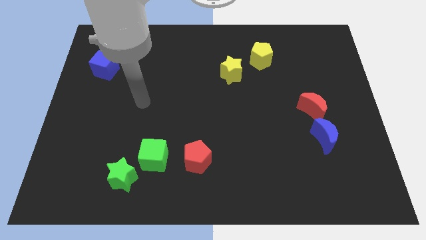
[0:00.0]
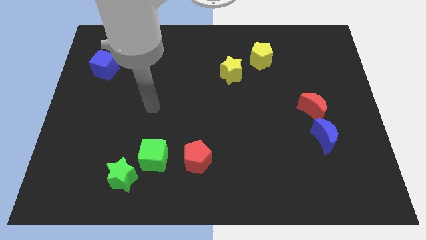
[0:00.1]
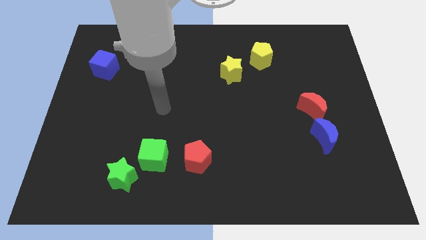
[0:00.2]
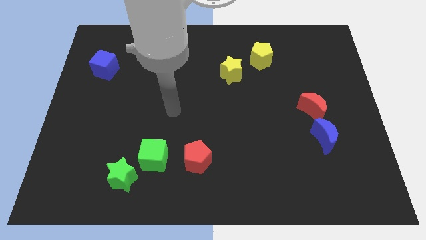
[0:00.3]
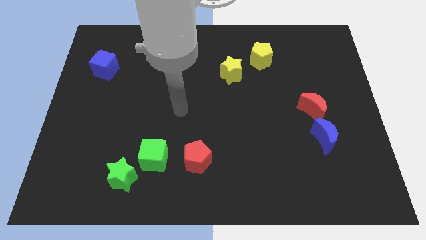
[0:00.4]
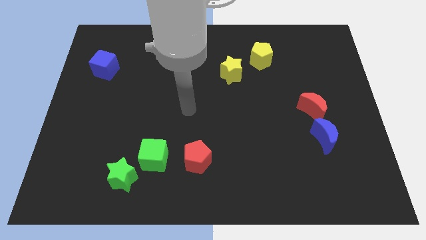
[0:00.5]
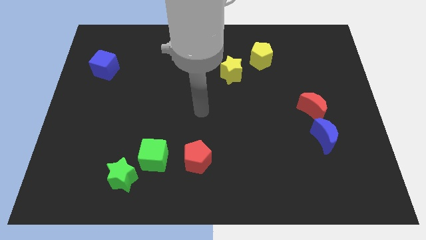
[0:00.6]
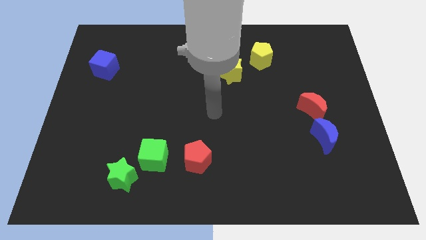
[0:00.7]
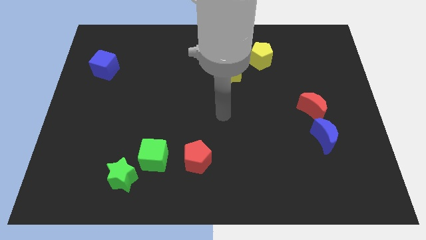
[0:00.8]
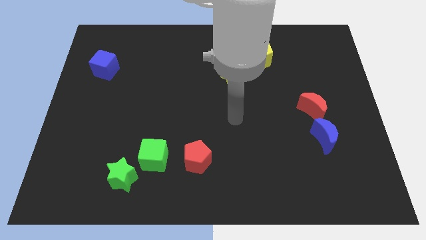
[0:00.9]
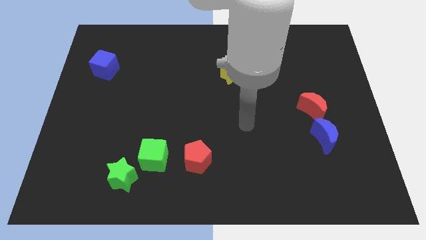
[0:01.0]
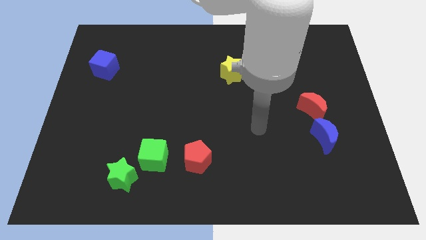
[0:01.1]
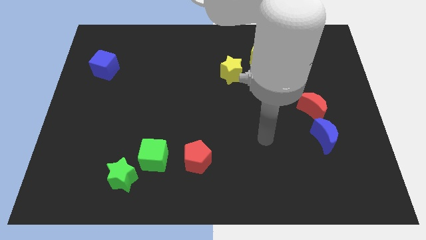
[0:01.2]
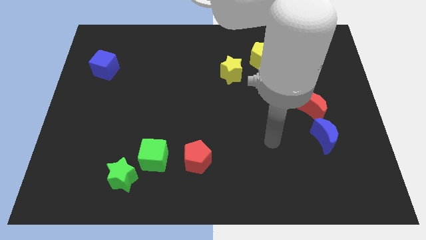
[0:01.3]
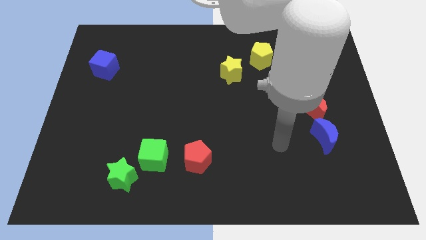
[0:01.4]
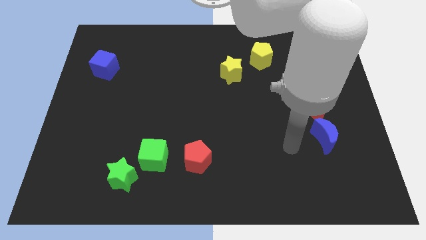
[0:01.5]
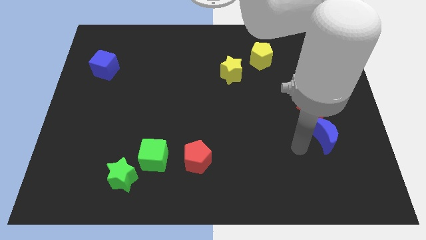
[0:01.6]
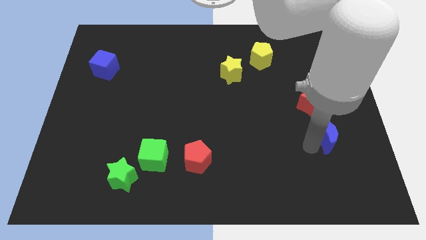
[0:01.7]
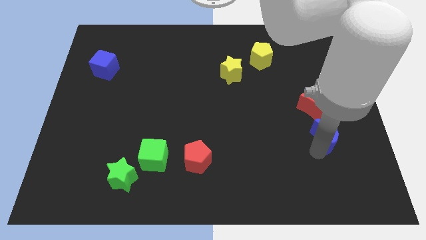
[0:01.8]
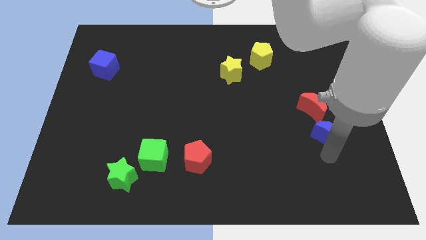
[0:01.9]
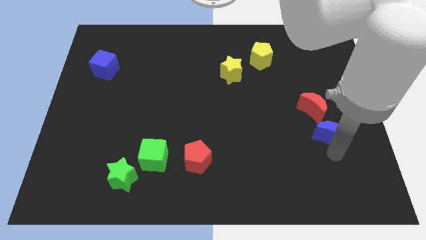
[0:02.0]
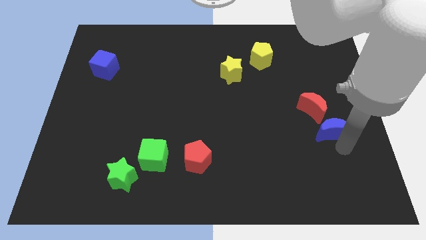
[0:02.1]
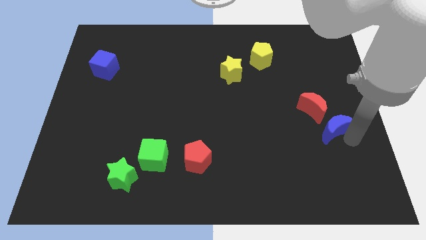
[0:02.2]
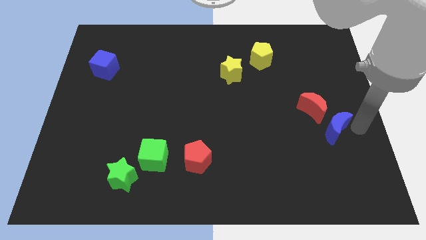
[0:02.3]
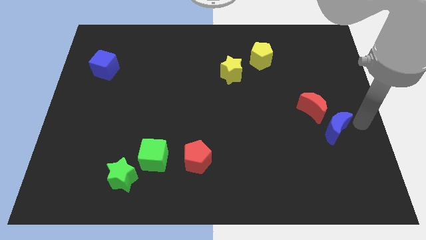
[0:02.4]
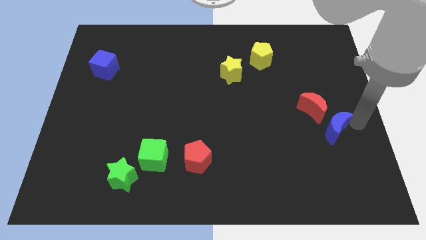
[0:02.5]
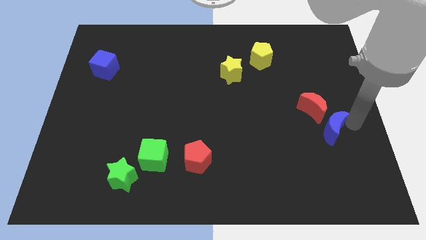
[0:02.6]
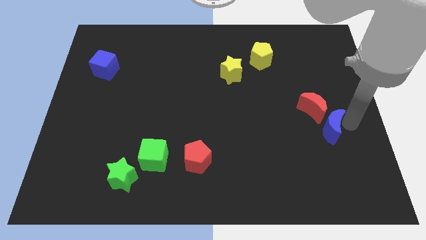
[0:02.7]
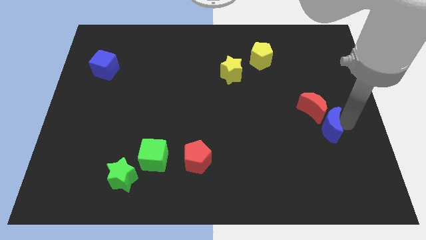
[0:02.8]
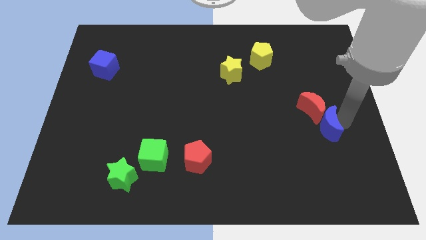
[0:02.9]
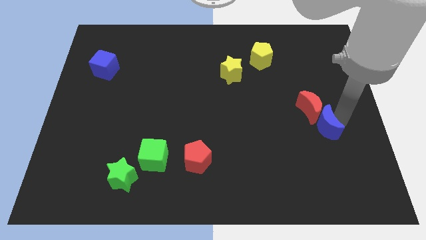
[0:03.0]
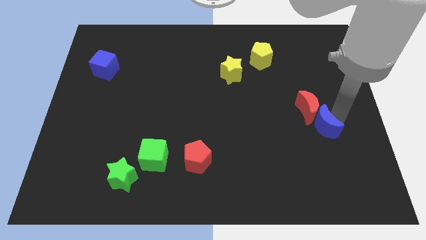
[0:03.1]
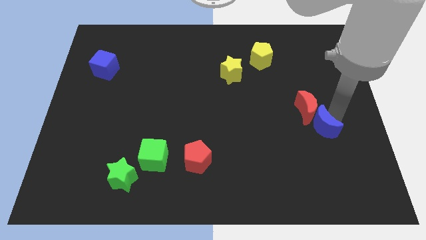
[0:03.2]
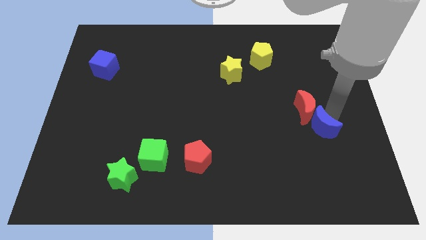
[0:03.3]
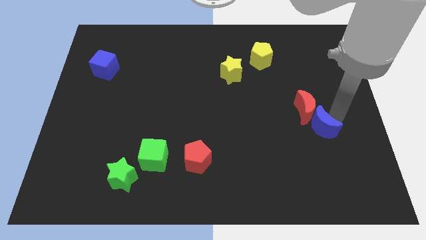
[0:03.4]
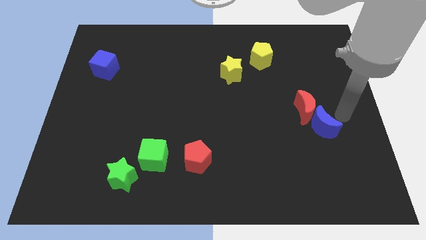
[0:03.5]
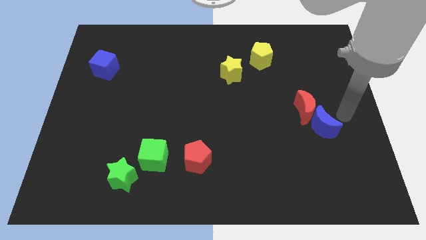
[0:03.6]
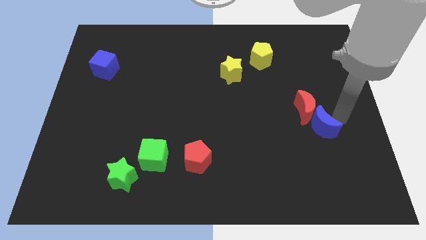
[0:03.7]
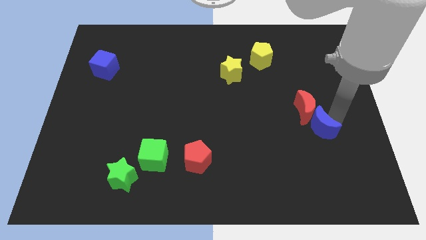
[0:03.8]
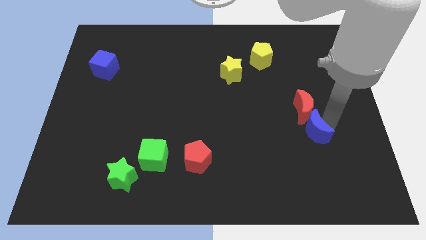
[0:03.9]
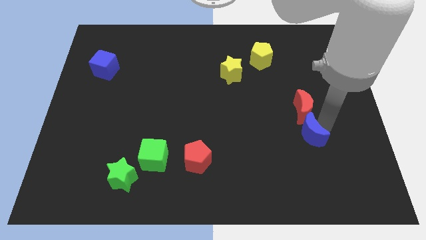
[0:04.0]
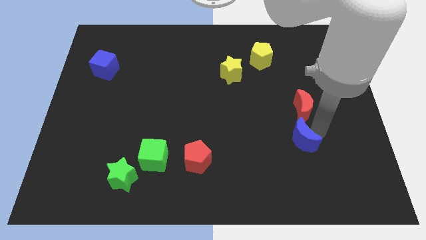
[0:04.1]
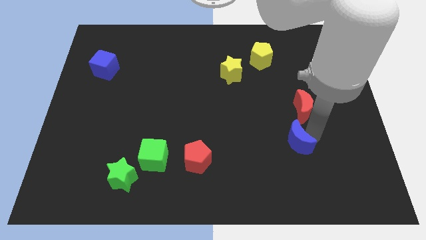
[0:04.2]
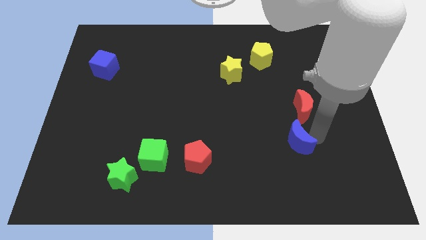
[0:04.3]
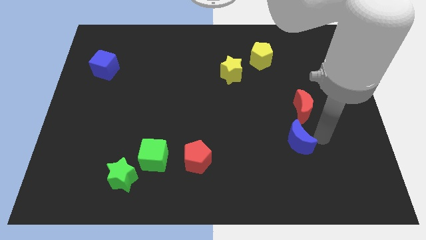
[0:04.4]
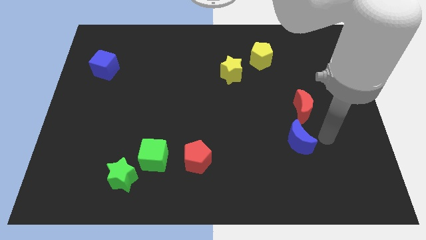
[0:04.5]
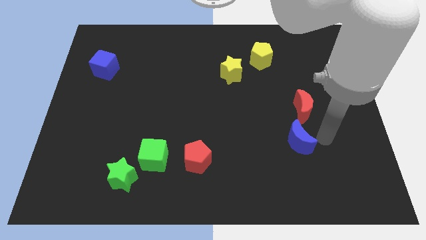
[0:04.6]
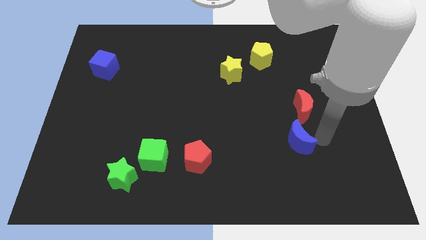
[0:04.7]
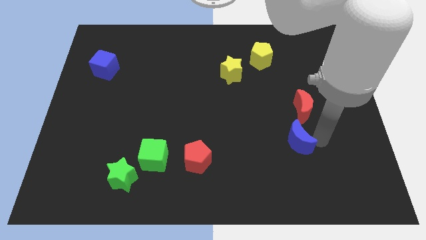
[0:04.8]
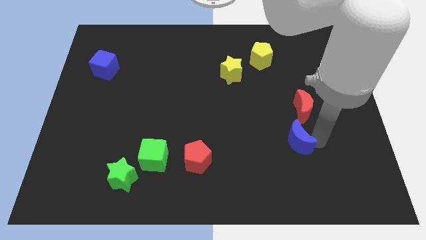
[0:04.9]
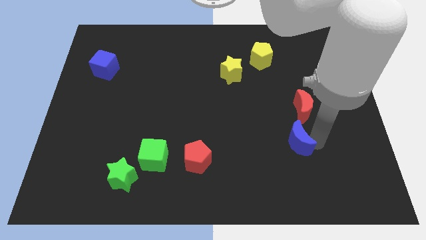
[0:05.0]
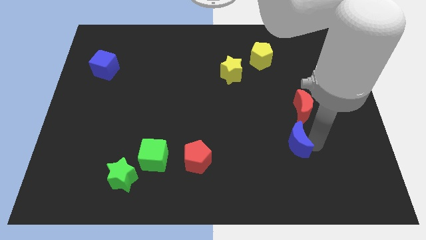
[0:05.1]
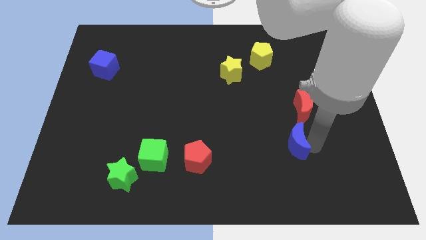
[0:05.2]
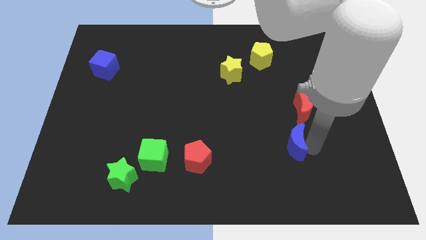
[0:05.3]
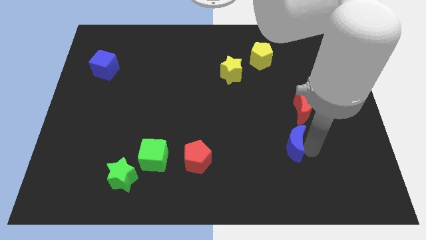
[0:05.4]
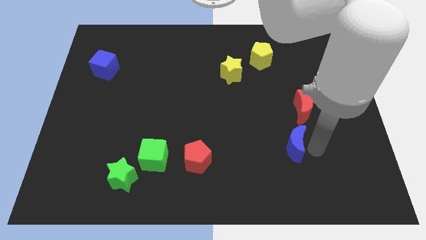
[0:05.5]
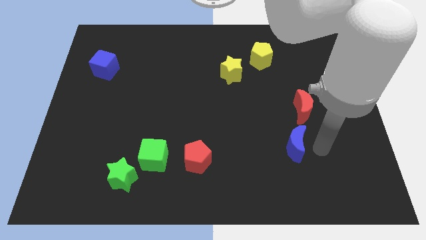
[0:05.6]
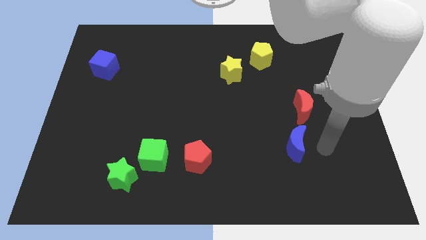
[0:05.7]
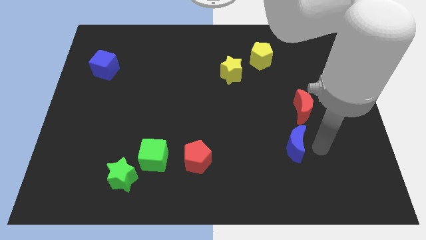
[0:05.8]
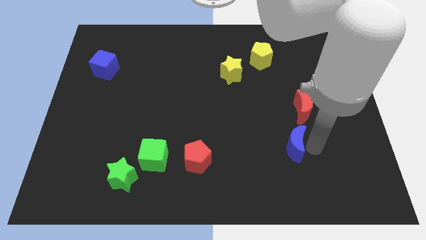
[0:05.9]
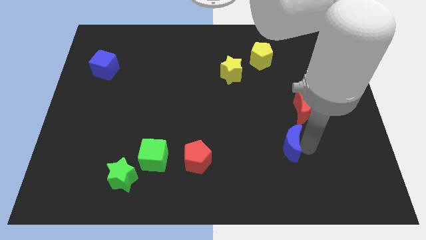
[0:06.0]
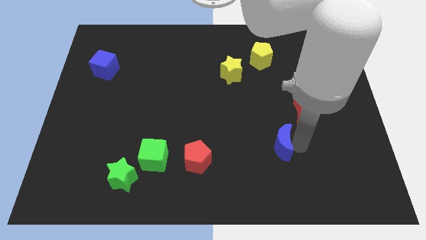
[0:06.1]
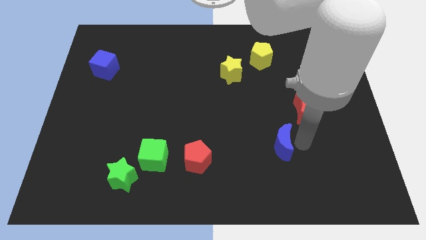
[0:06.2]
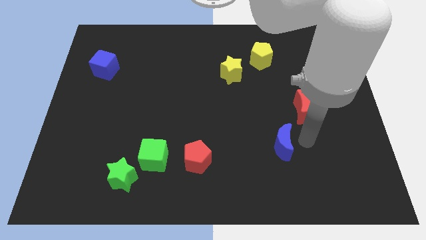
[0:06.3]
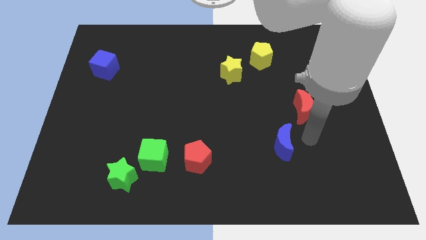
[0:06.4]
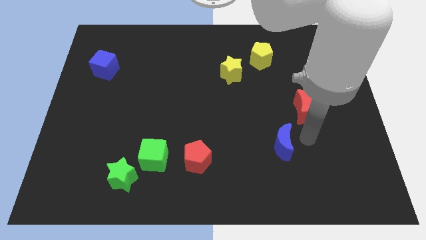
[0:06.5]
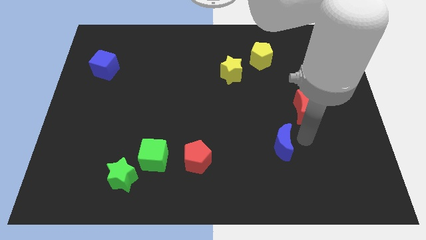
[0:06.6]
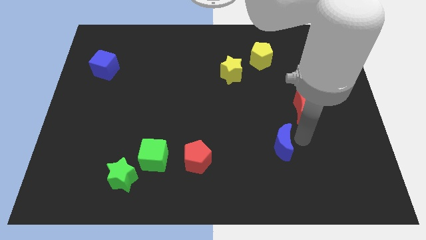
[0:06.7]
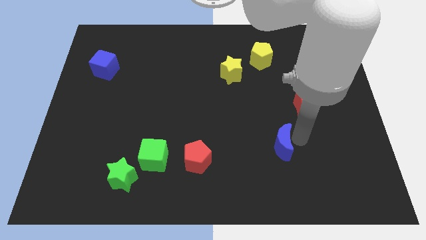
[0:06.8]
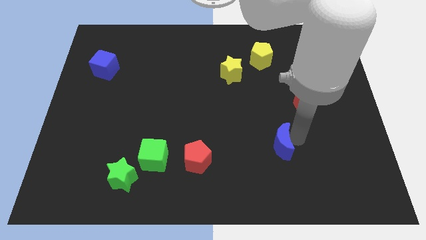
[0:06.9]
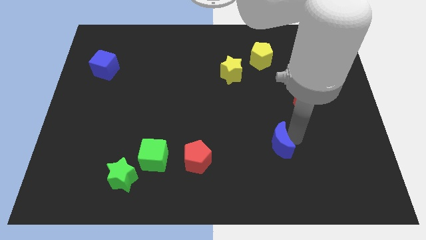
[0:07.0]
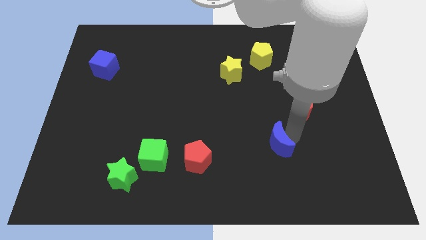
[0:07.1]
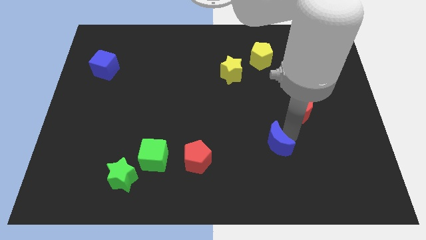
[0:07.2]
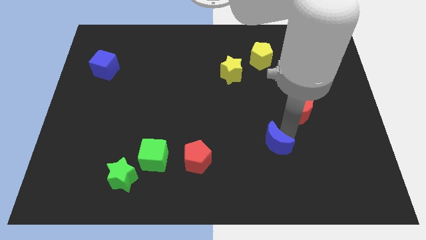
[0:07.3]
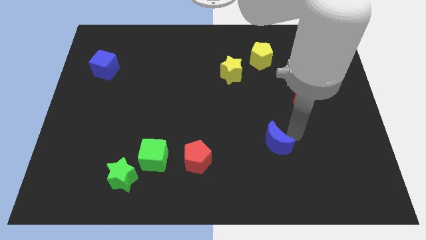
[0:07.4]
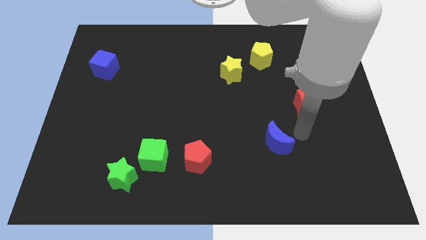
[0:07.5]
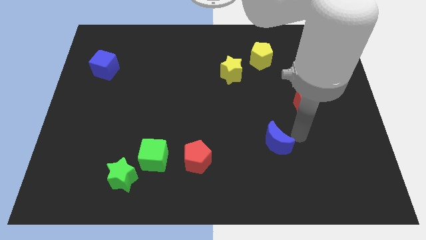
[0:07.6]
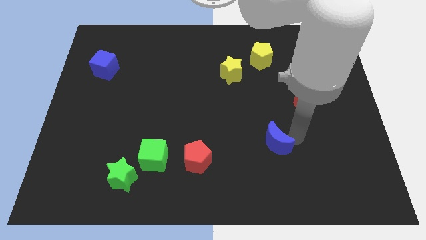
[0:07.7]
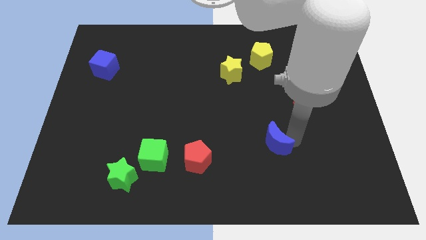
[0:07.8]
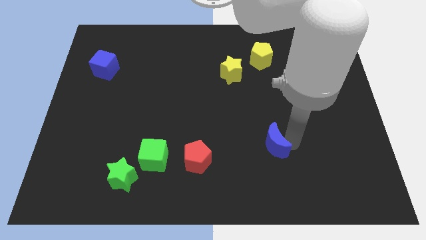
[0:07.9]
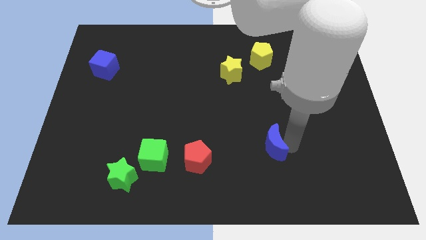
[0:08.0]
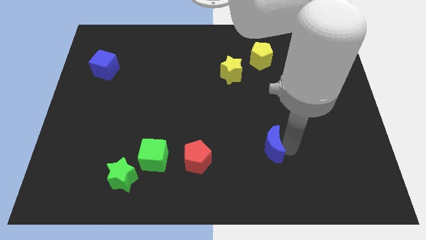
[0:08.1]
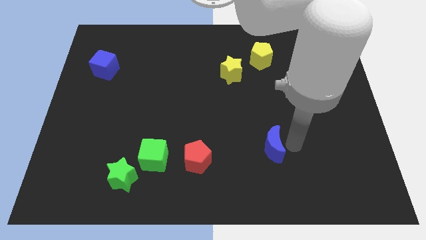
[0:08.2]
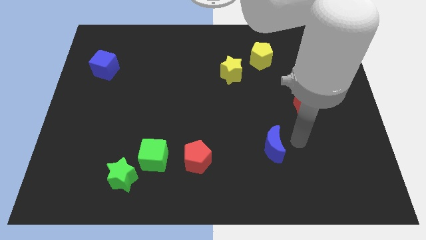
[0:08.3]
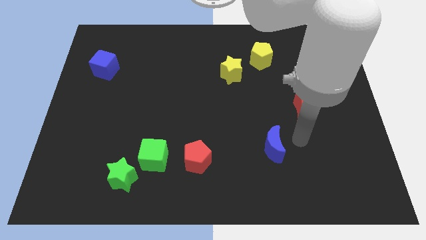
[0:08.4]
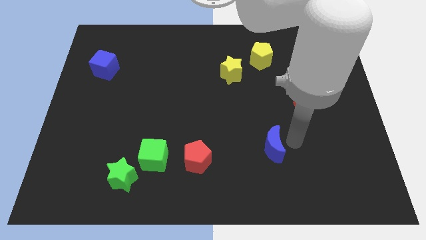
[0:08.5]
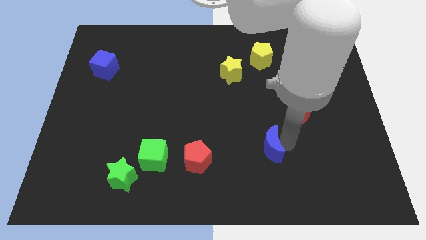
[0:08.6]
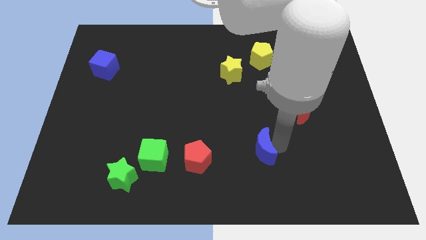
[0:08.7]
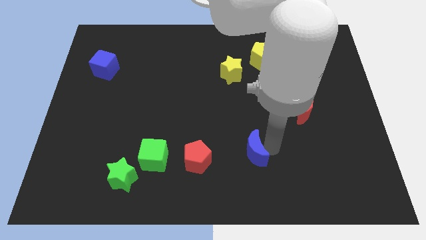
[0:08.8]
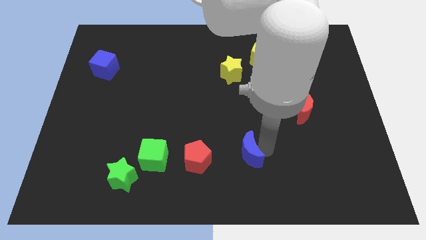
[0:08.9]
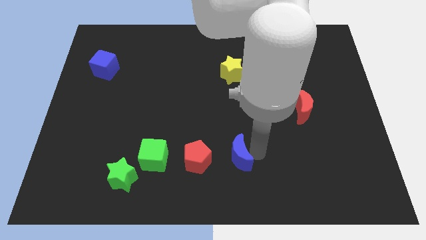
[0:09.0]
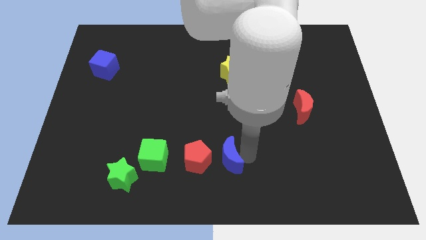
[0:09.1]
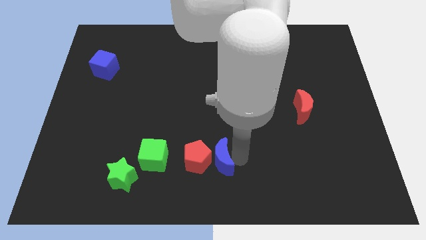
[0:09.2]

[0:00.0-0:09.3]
put the blue moon close to the red pentagon
